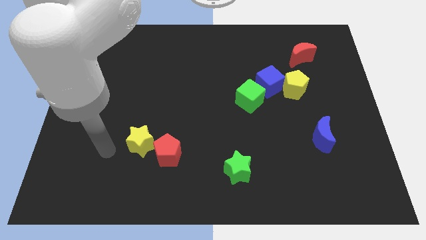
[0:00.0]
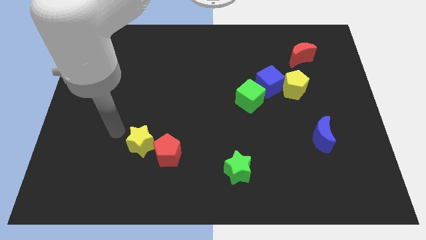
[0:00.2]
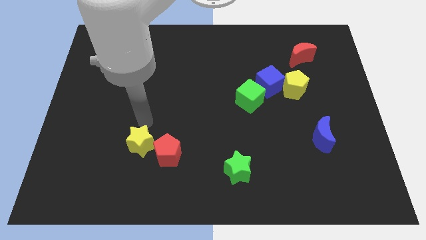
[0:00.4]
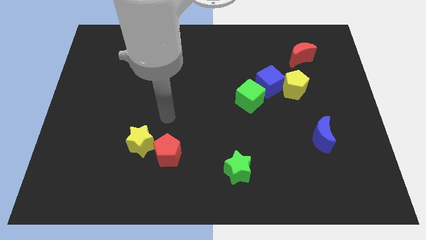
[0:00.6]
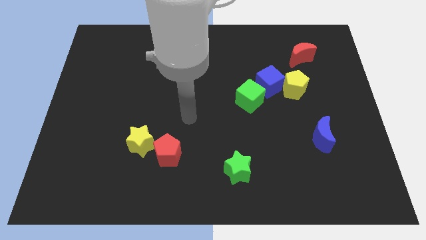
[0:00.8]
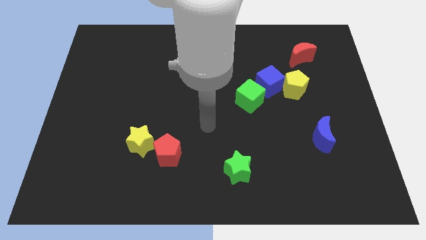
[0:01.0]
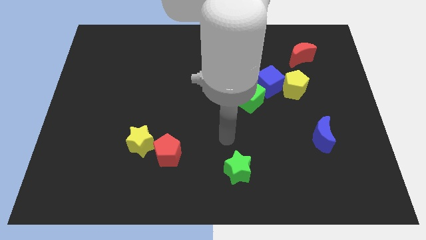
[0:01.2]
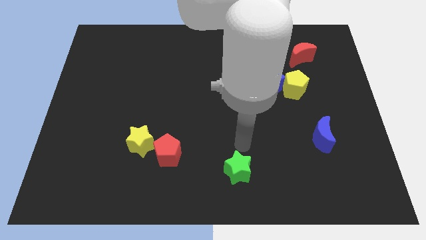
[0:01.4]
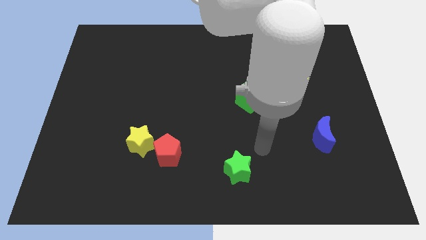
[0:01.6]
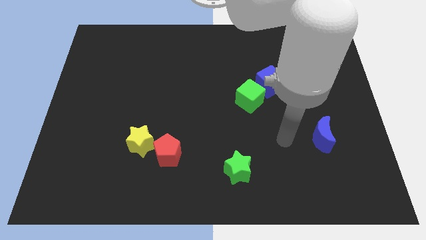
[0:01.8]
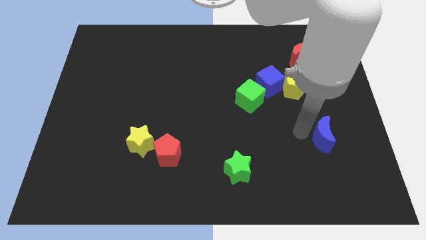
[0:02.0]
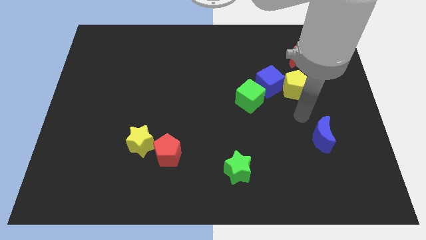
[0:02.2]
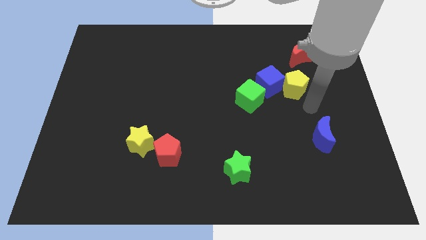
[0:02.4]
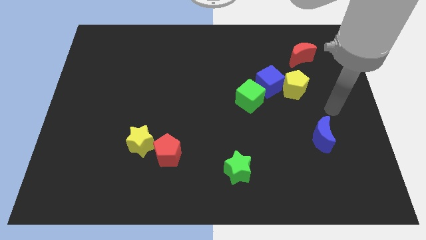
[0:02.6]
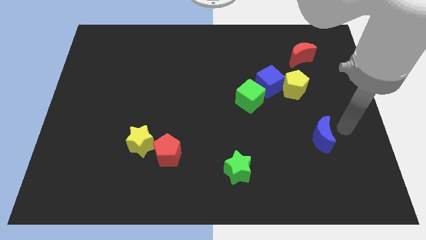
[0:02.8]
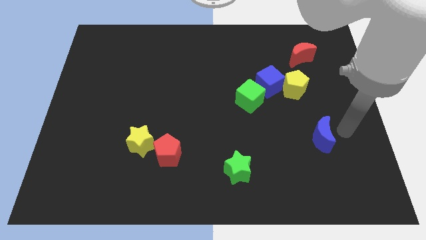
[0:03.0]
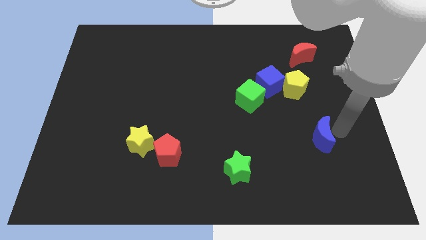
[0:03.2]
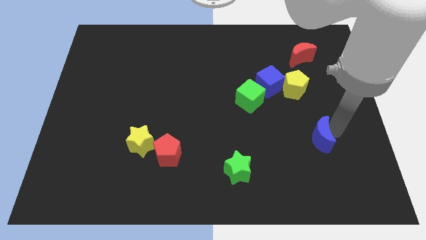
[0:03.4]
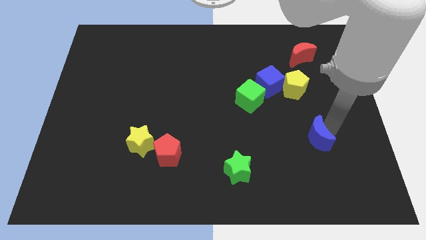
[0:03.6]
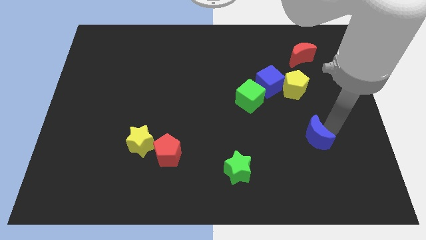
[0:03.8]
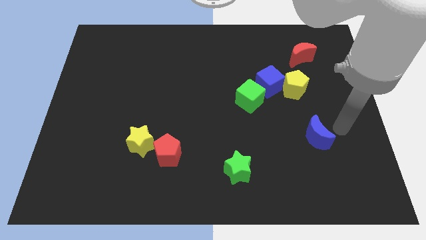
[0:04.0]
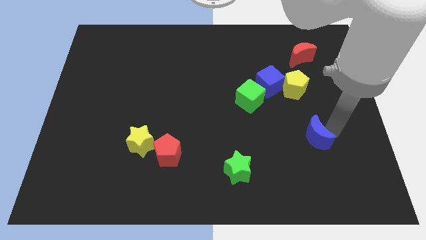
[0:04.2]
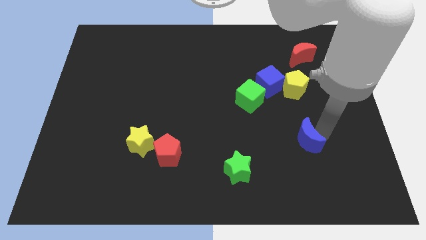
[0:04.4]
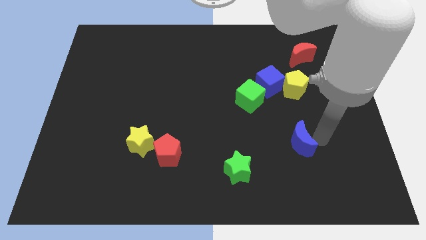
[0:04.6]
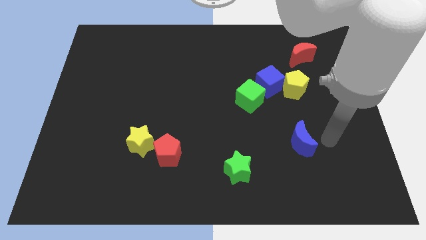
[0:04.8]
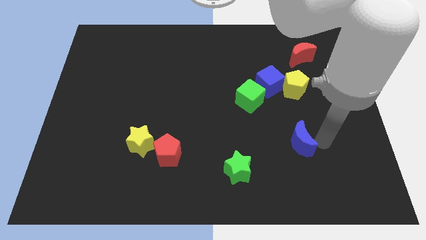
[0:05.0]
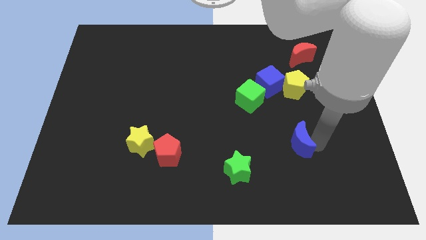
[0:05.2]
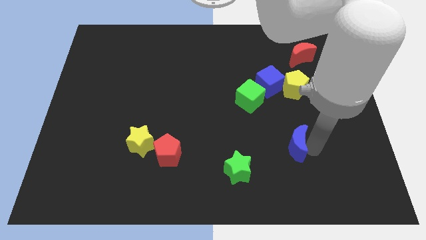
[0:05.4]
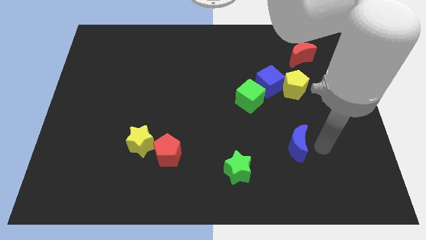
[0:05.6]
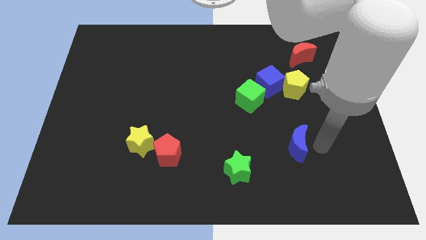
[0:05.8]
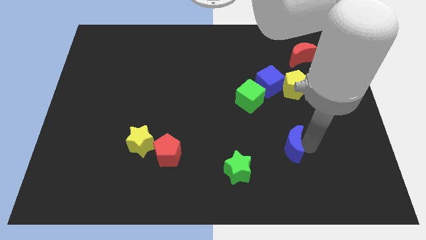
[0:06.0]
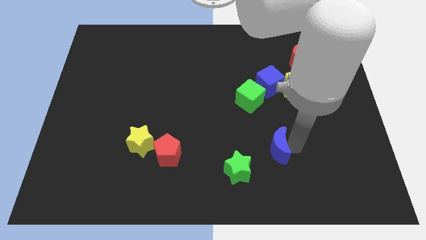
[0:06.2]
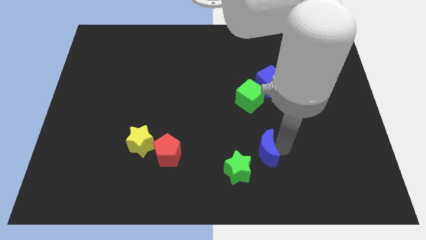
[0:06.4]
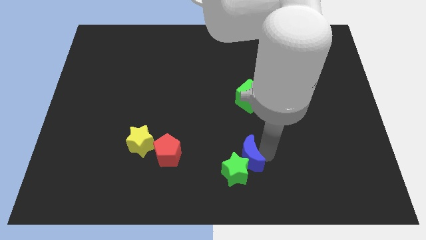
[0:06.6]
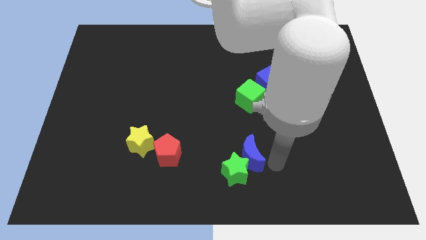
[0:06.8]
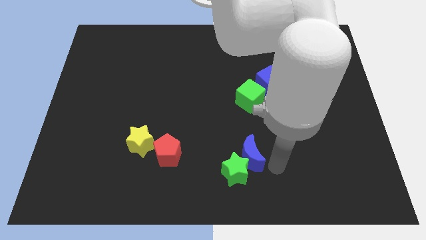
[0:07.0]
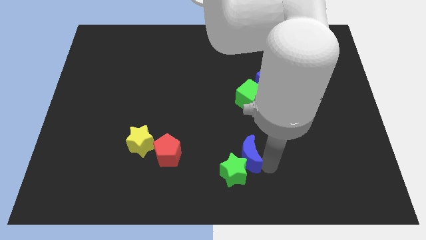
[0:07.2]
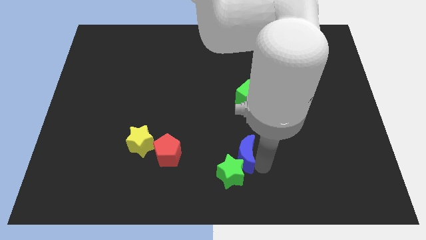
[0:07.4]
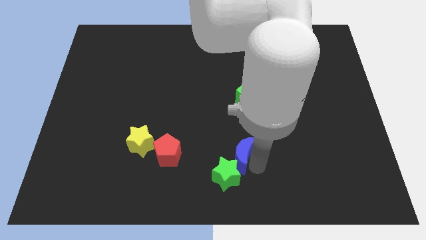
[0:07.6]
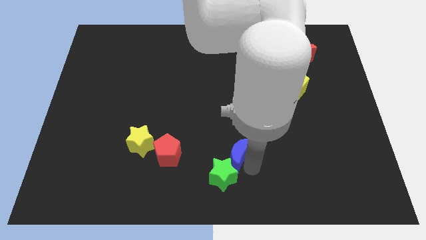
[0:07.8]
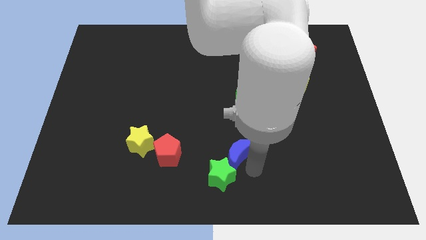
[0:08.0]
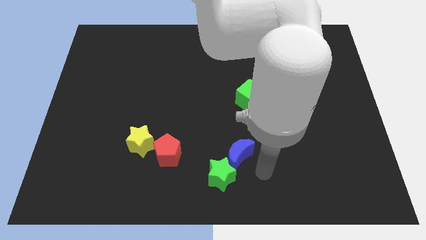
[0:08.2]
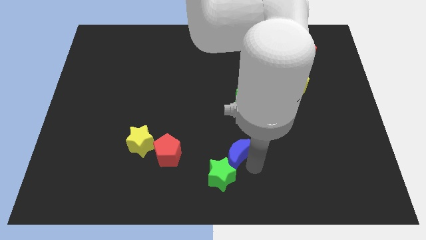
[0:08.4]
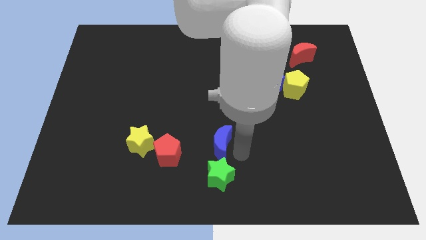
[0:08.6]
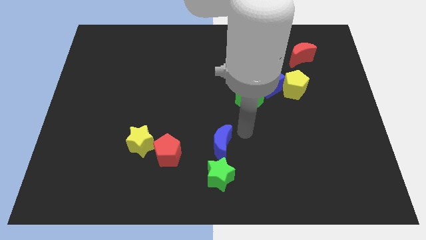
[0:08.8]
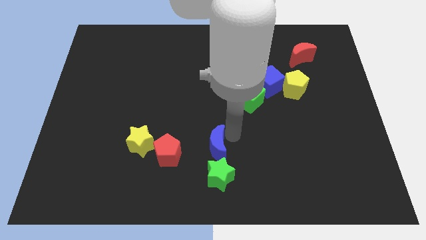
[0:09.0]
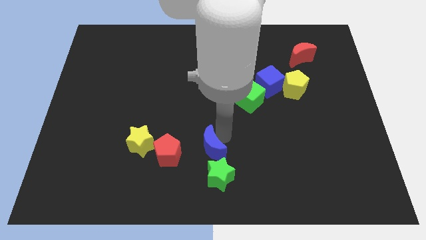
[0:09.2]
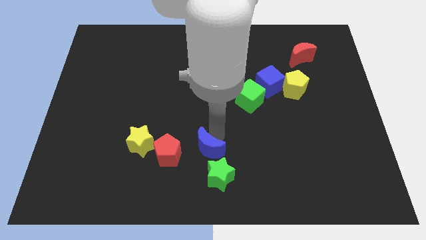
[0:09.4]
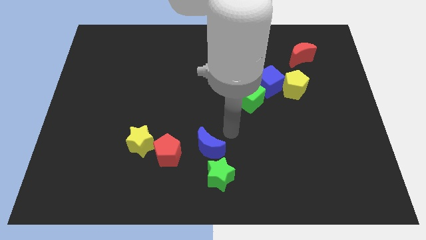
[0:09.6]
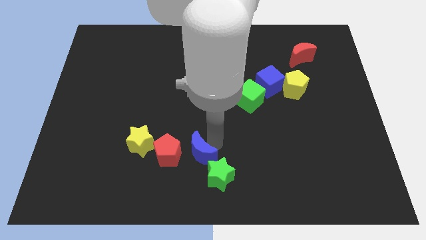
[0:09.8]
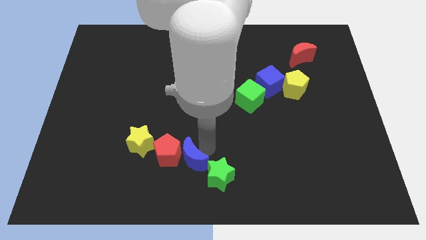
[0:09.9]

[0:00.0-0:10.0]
put the blue moon just left of the green star

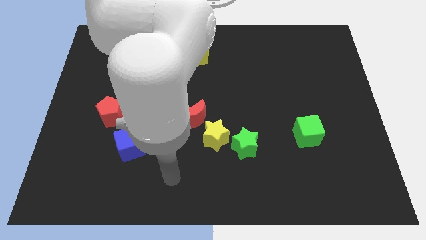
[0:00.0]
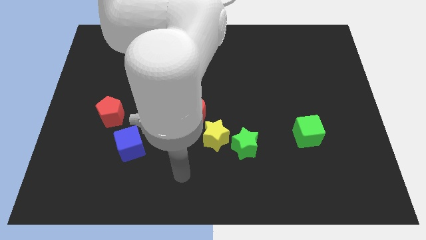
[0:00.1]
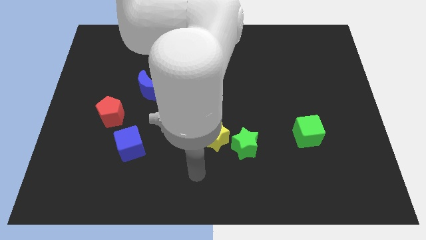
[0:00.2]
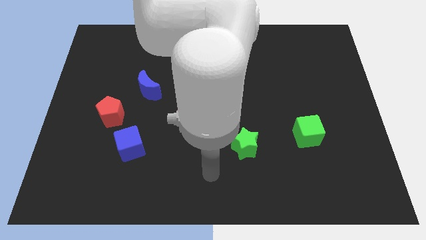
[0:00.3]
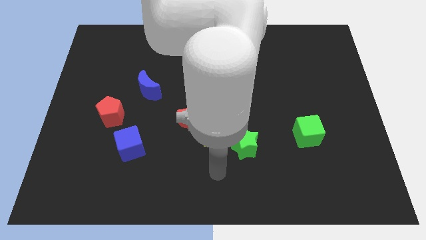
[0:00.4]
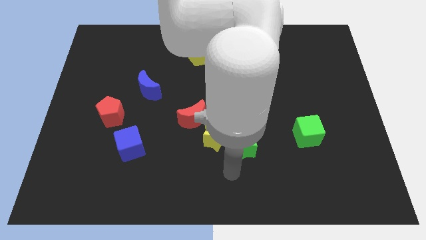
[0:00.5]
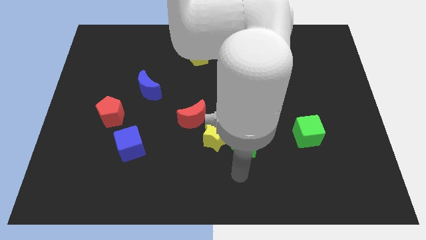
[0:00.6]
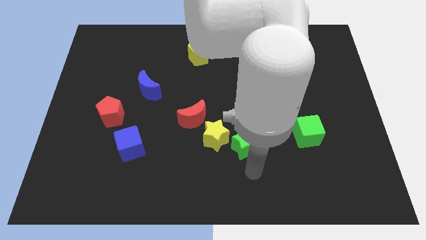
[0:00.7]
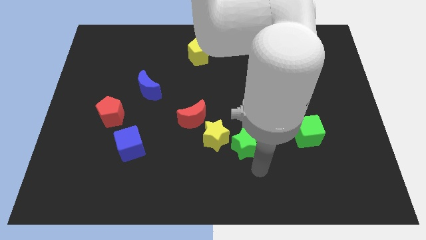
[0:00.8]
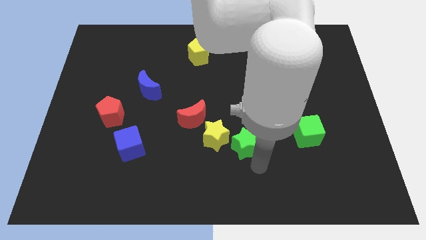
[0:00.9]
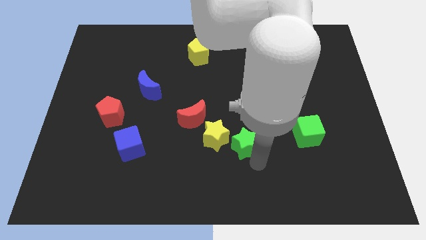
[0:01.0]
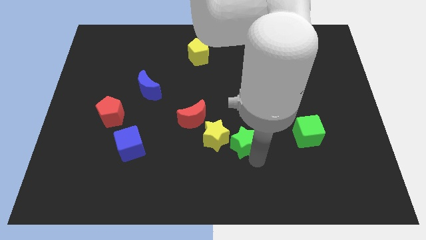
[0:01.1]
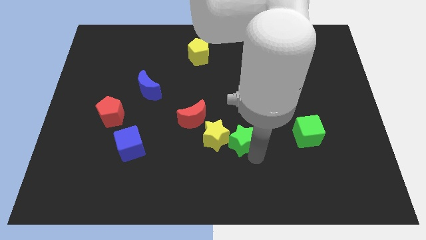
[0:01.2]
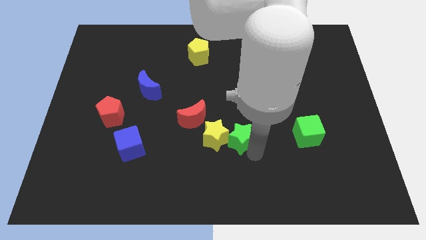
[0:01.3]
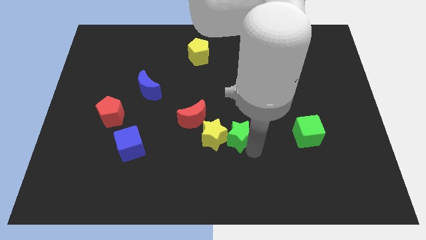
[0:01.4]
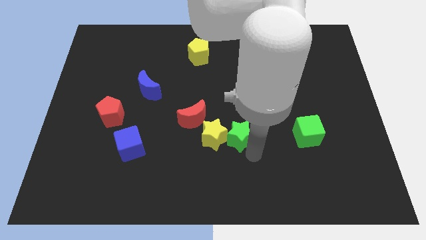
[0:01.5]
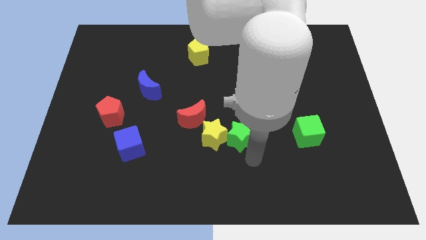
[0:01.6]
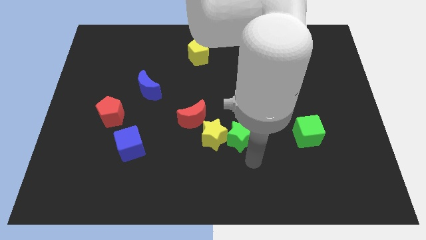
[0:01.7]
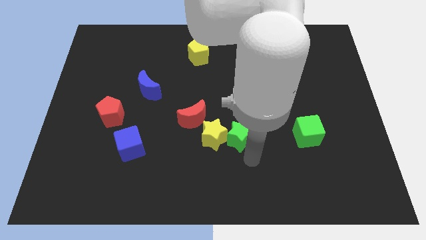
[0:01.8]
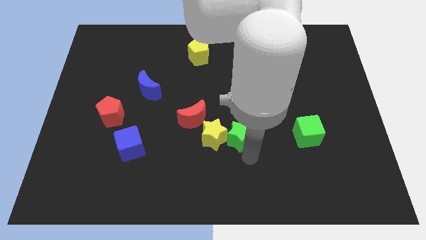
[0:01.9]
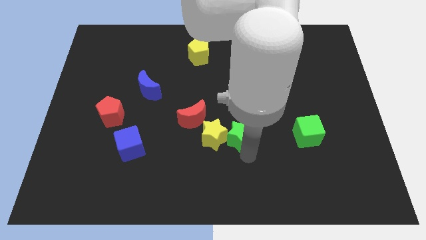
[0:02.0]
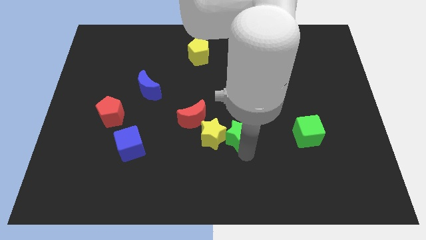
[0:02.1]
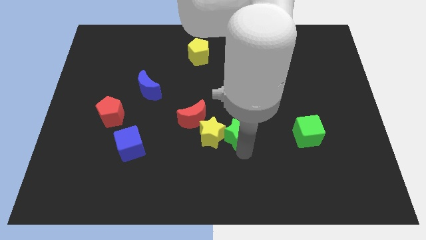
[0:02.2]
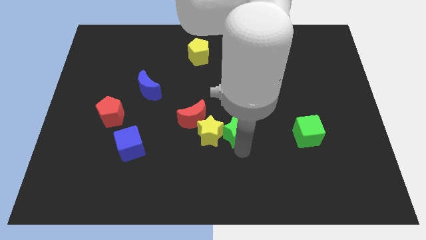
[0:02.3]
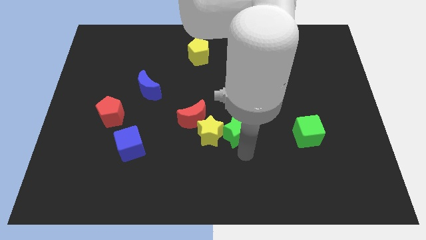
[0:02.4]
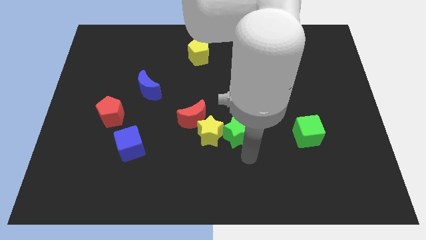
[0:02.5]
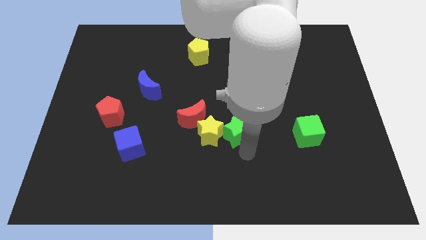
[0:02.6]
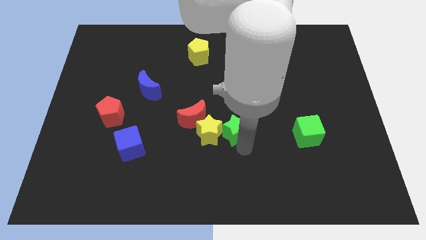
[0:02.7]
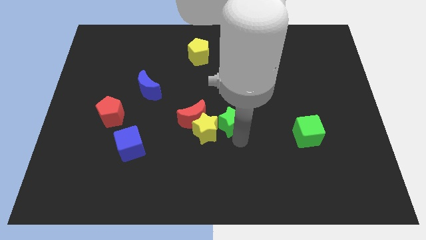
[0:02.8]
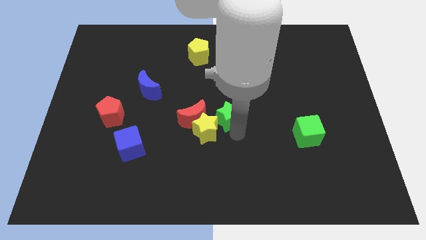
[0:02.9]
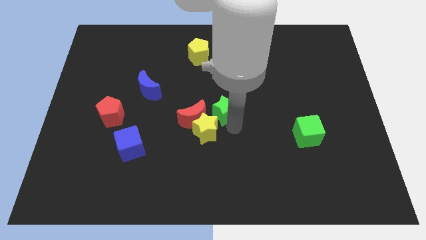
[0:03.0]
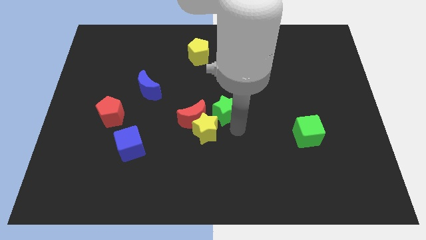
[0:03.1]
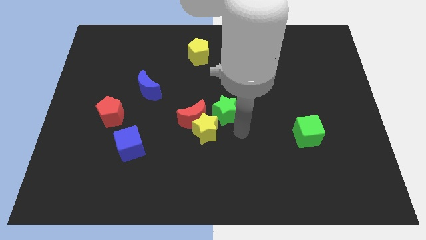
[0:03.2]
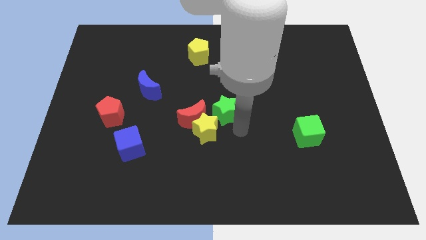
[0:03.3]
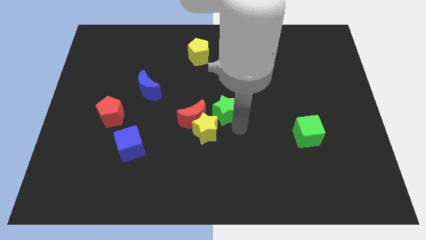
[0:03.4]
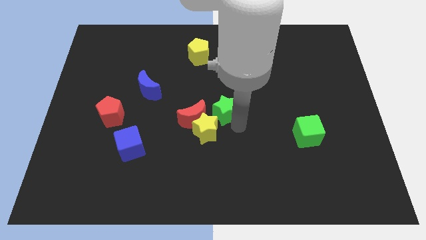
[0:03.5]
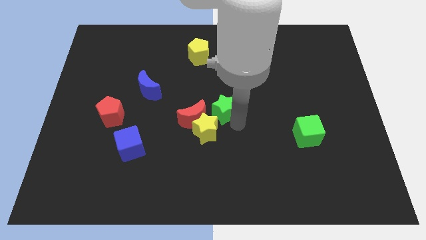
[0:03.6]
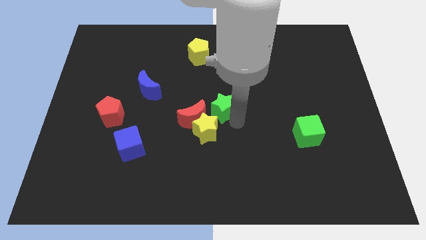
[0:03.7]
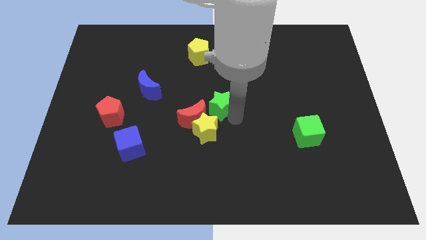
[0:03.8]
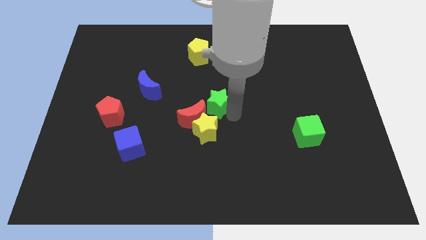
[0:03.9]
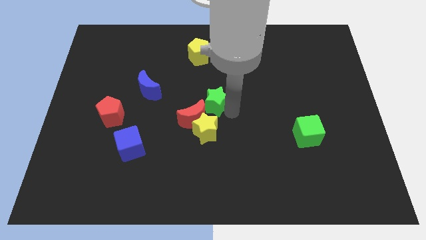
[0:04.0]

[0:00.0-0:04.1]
push the green star above the red moon
